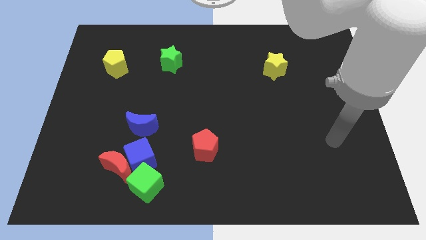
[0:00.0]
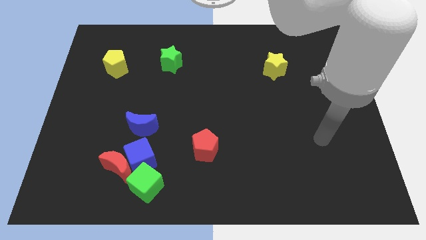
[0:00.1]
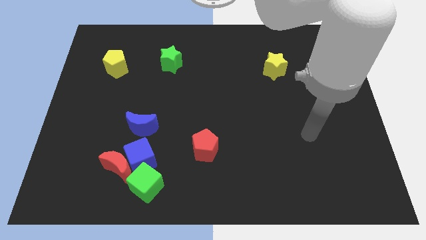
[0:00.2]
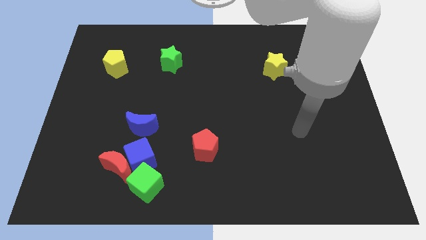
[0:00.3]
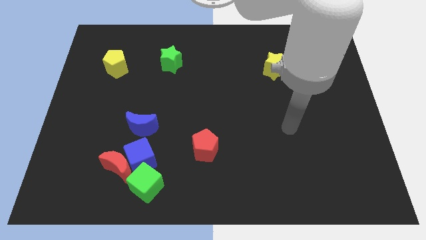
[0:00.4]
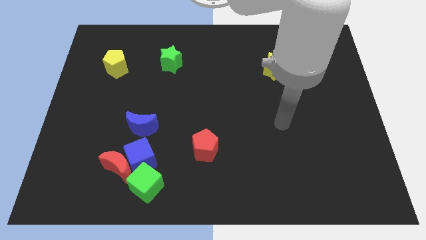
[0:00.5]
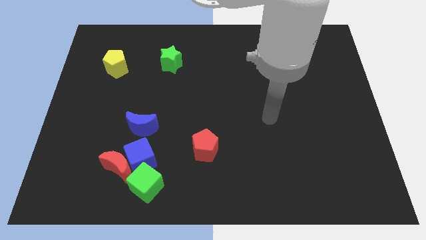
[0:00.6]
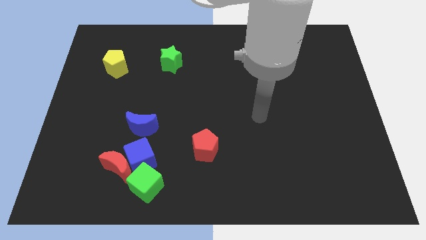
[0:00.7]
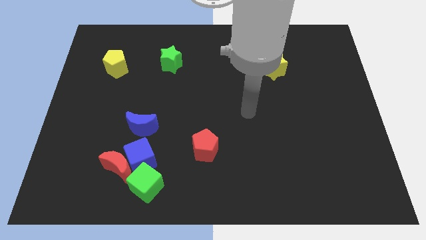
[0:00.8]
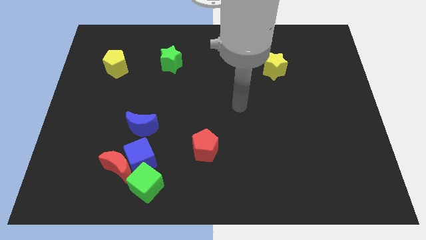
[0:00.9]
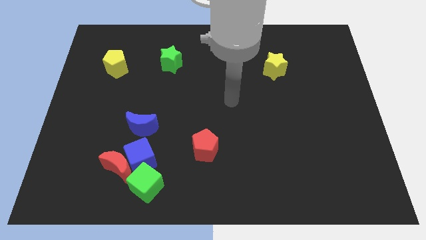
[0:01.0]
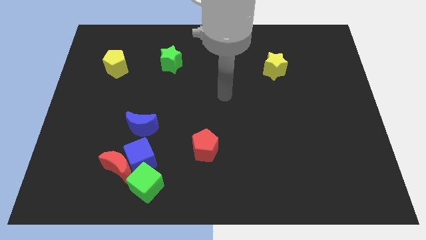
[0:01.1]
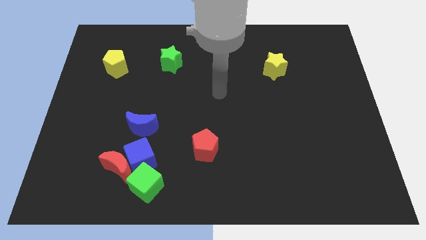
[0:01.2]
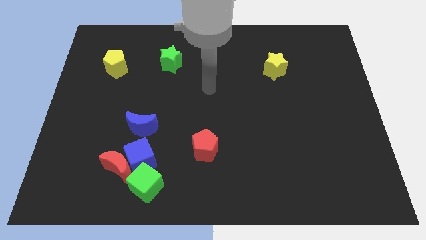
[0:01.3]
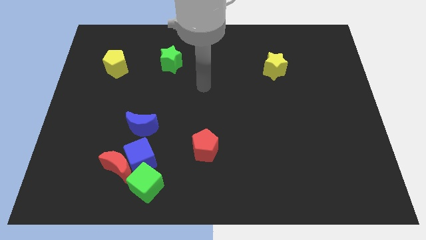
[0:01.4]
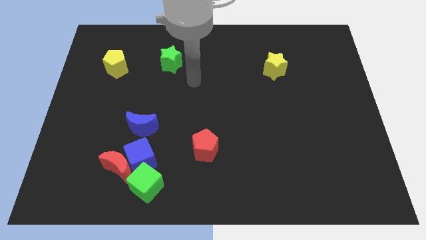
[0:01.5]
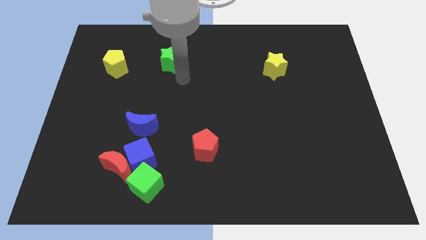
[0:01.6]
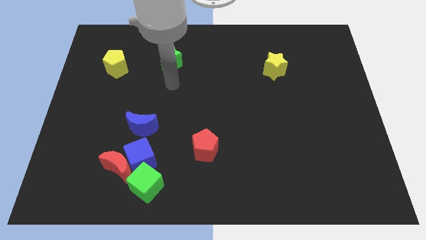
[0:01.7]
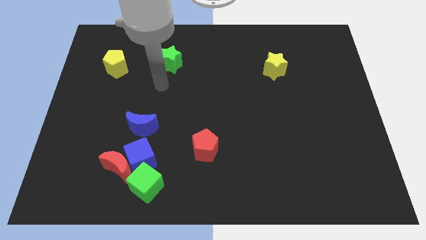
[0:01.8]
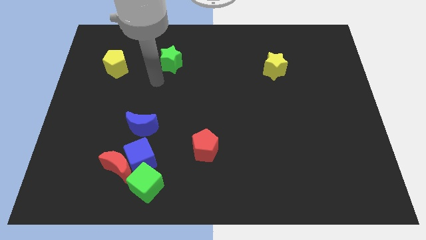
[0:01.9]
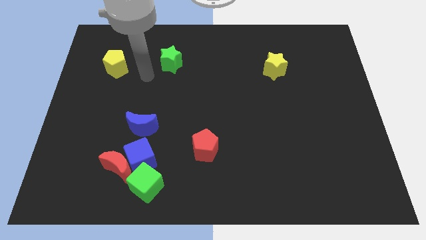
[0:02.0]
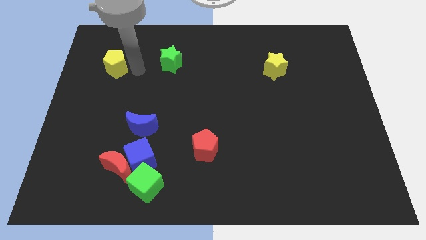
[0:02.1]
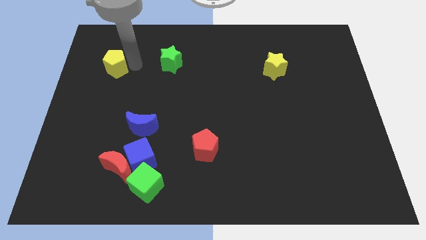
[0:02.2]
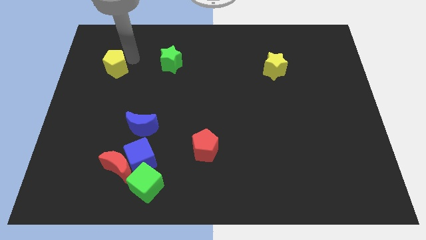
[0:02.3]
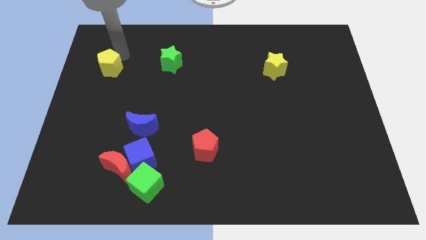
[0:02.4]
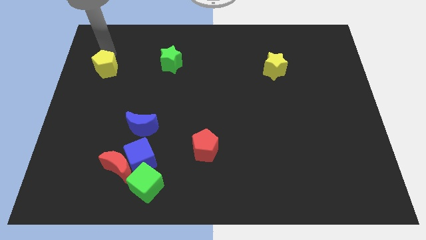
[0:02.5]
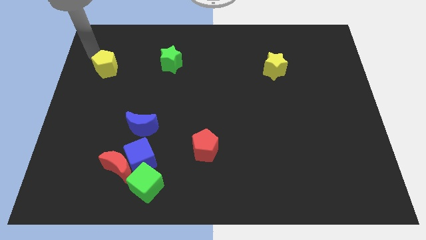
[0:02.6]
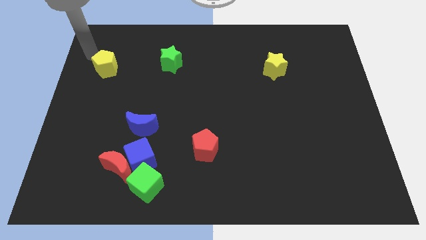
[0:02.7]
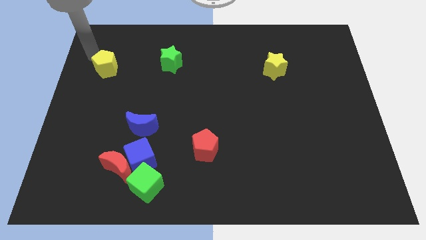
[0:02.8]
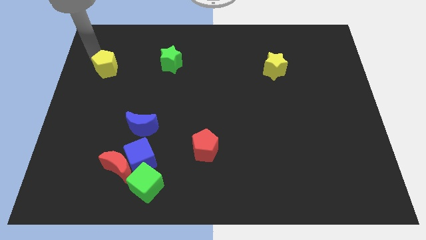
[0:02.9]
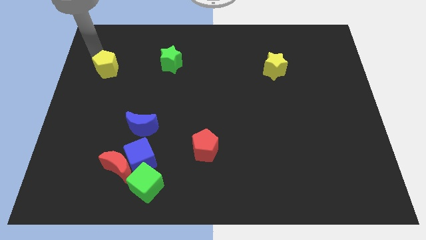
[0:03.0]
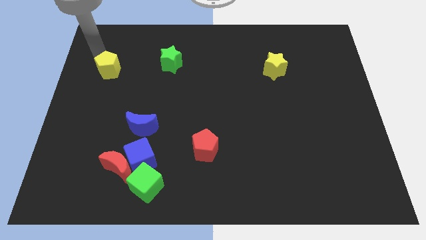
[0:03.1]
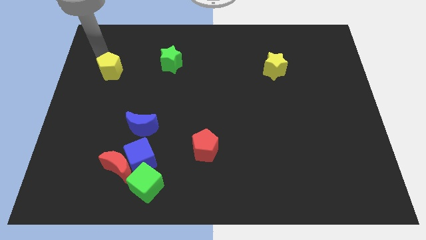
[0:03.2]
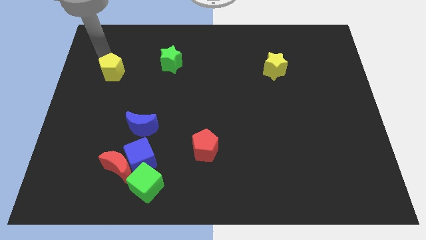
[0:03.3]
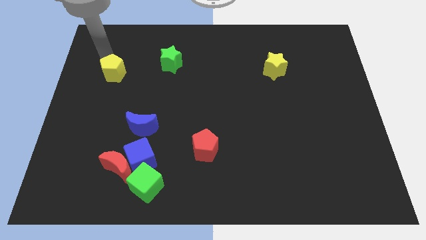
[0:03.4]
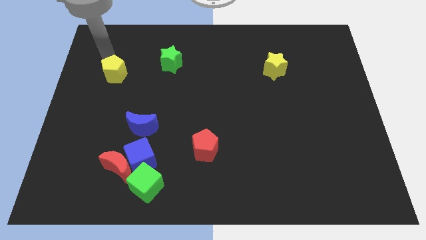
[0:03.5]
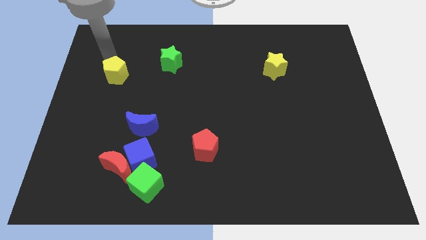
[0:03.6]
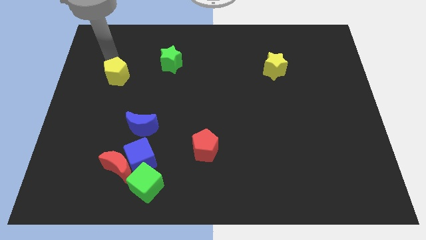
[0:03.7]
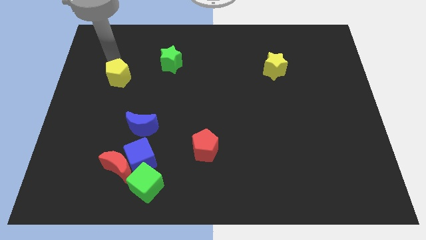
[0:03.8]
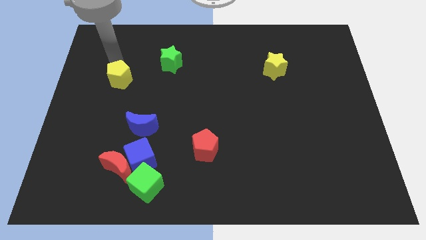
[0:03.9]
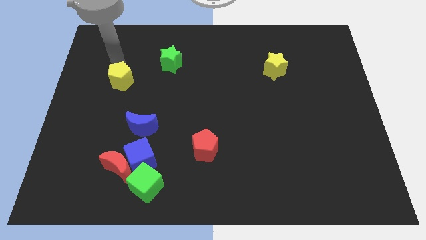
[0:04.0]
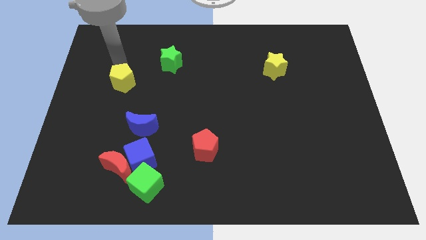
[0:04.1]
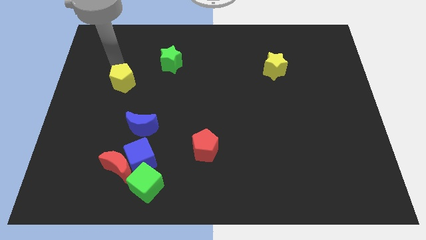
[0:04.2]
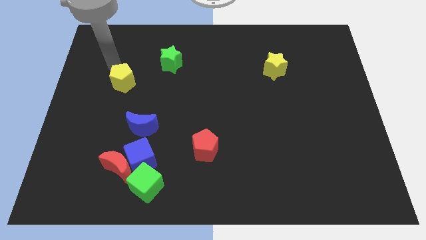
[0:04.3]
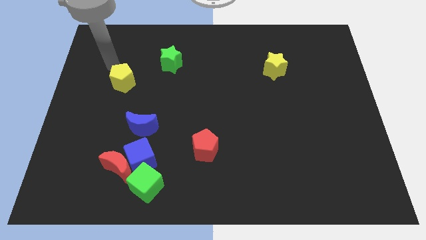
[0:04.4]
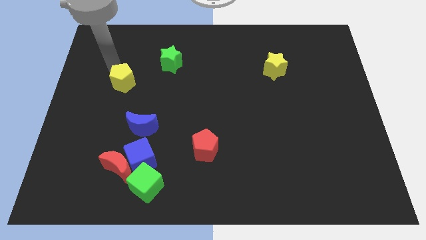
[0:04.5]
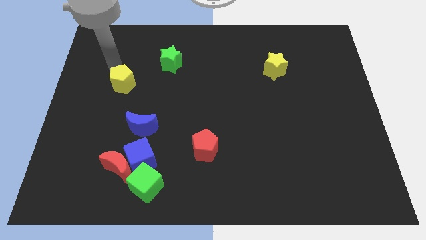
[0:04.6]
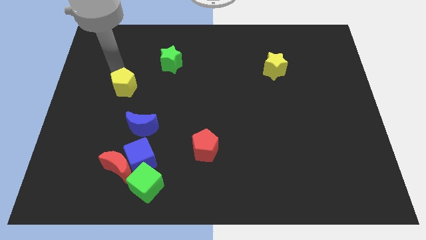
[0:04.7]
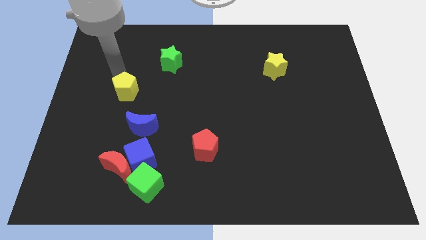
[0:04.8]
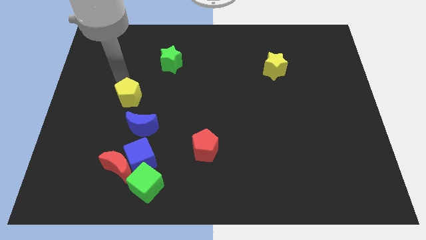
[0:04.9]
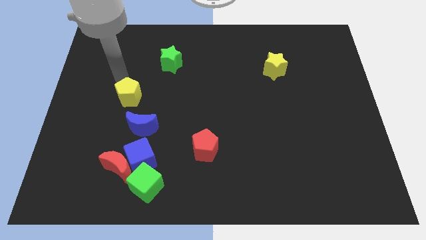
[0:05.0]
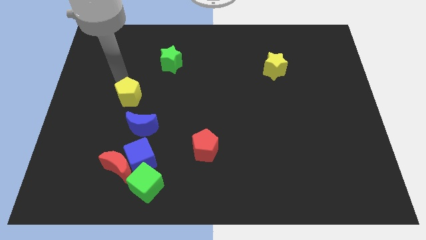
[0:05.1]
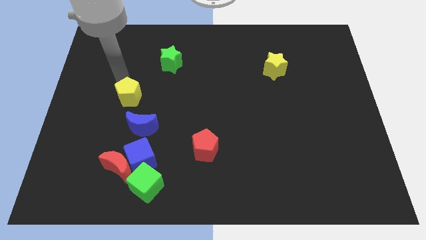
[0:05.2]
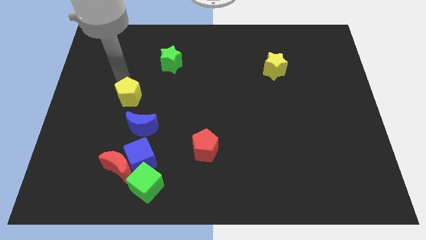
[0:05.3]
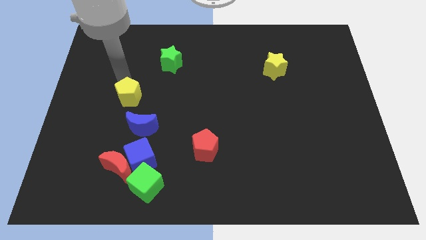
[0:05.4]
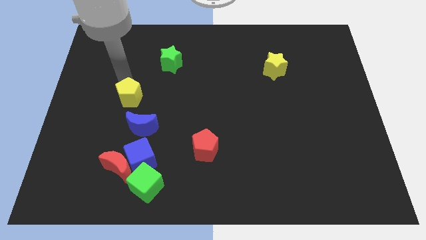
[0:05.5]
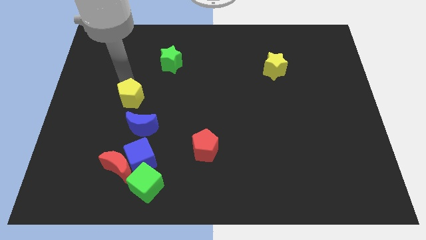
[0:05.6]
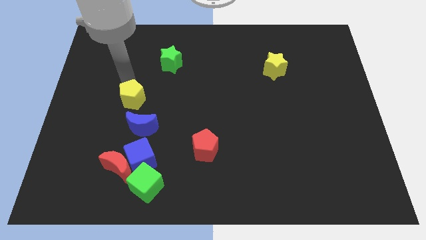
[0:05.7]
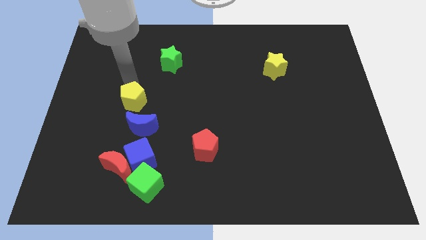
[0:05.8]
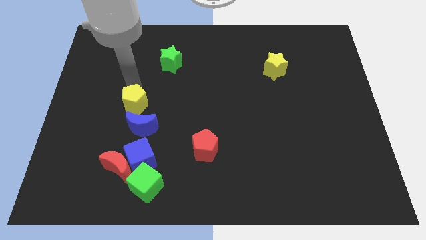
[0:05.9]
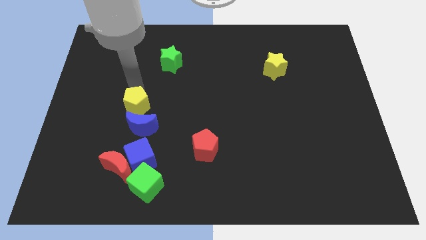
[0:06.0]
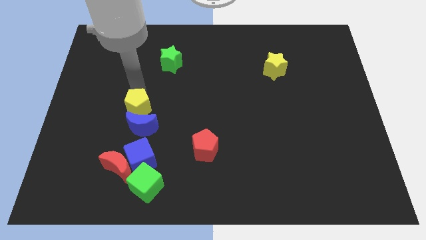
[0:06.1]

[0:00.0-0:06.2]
put the yellow pentagon close to the blue moon

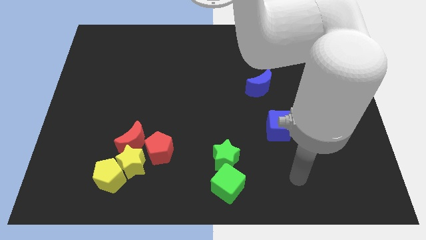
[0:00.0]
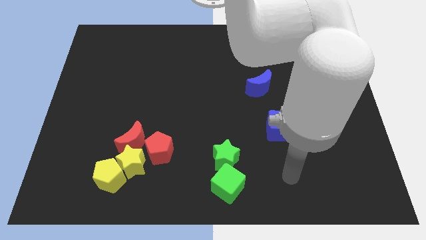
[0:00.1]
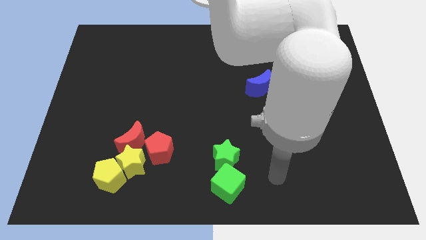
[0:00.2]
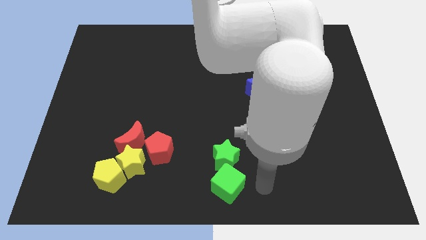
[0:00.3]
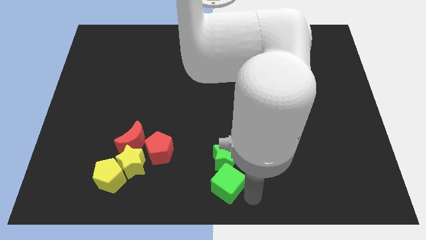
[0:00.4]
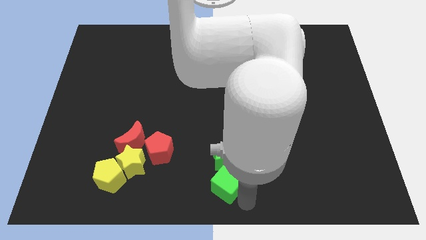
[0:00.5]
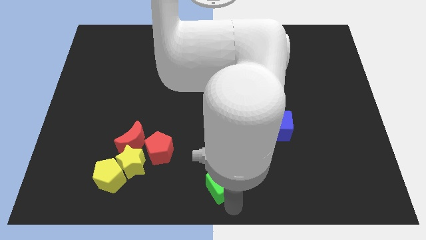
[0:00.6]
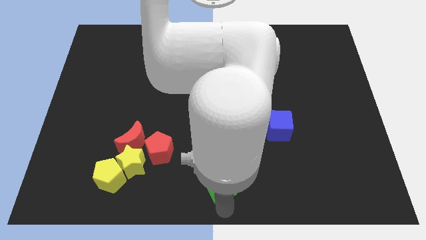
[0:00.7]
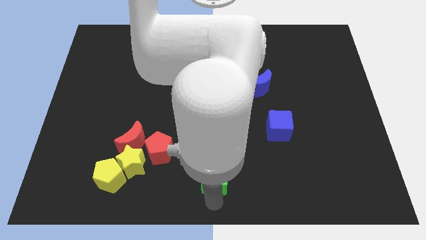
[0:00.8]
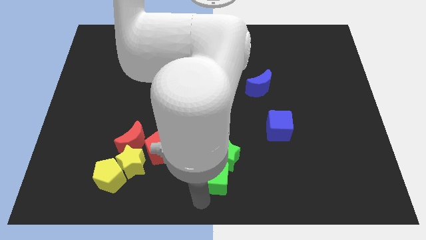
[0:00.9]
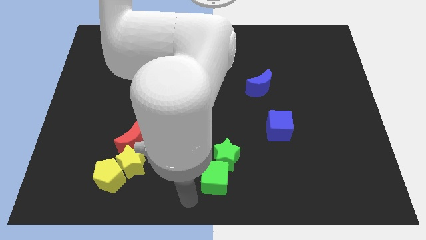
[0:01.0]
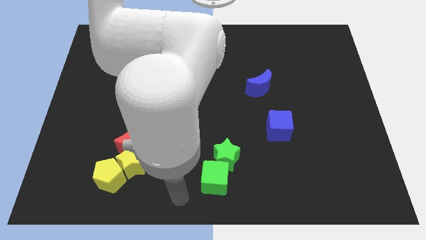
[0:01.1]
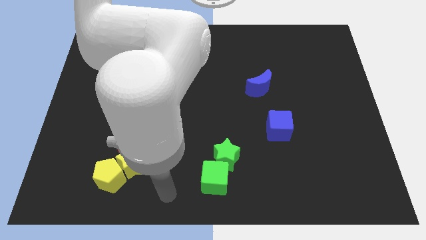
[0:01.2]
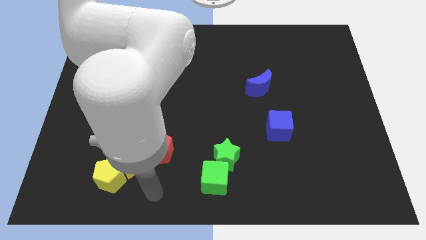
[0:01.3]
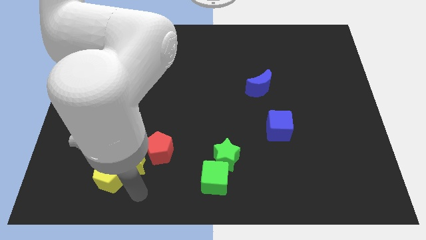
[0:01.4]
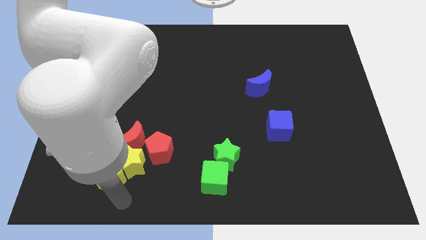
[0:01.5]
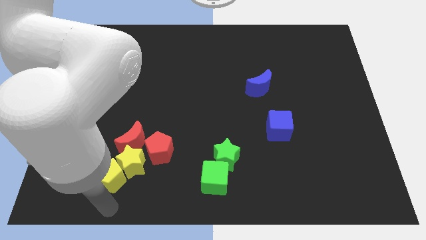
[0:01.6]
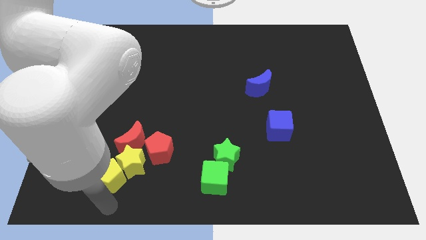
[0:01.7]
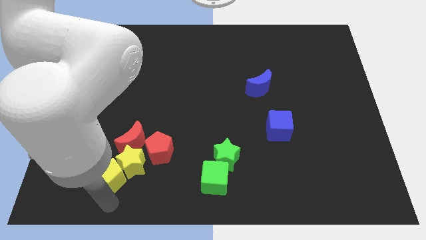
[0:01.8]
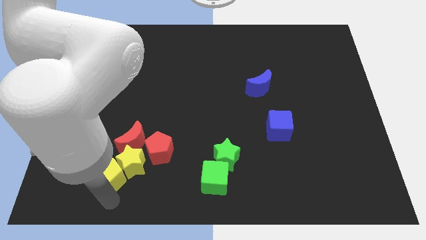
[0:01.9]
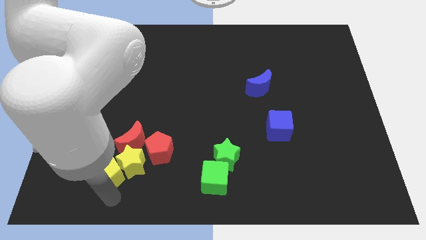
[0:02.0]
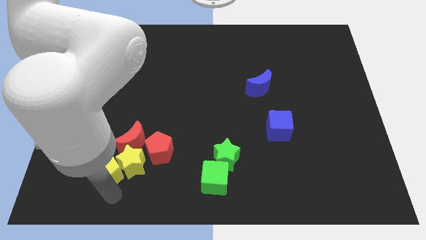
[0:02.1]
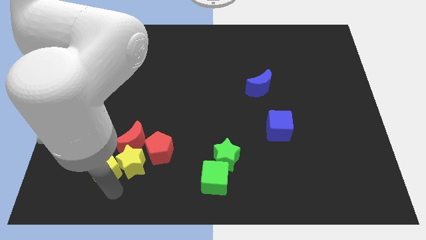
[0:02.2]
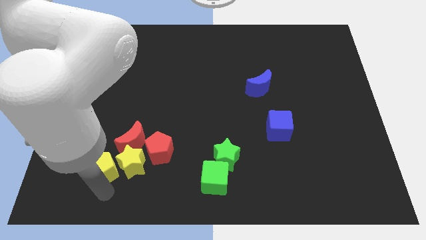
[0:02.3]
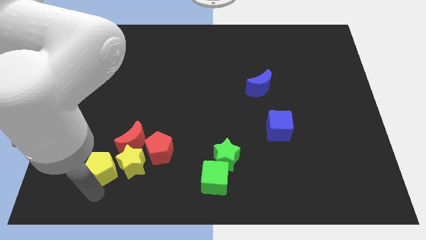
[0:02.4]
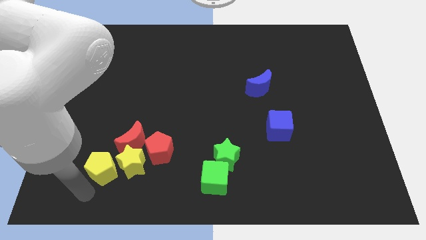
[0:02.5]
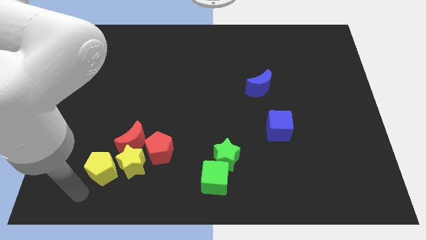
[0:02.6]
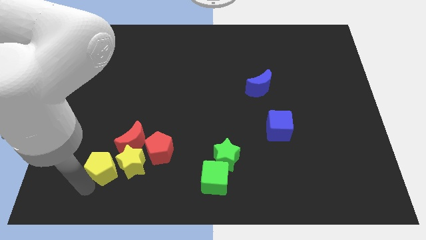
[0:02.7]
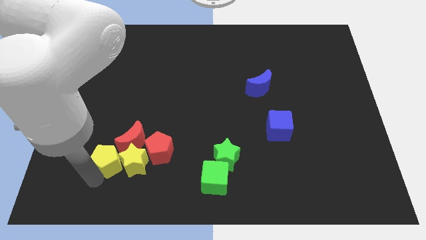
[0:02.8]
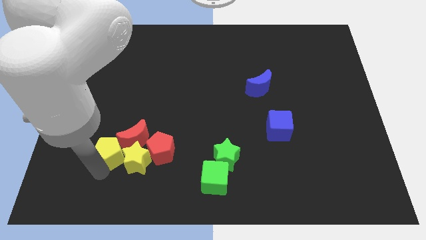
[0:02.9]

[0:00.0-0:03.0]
push the yellow pentagon towards the red moon
